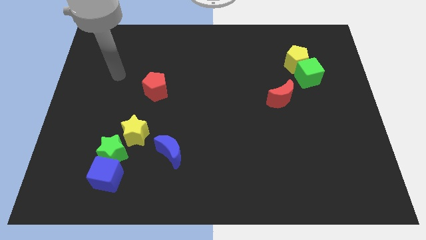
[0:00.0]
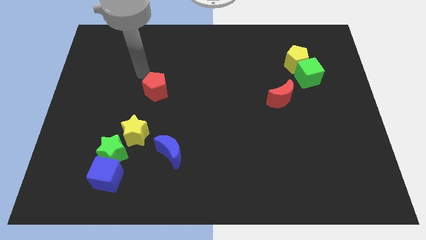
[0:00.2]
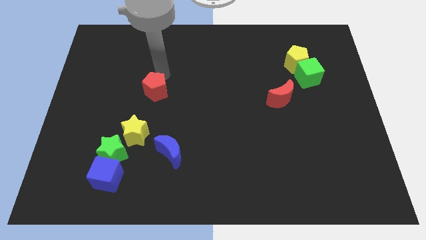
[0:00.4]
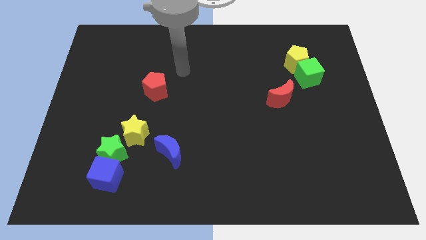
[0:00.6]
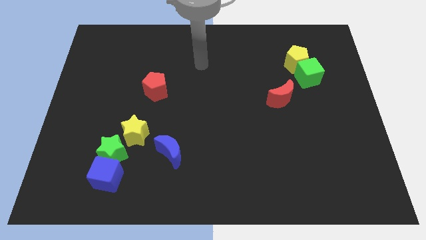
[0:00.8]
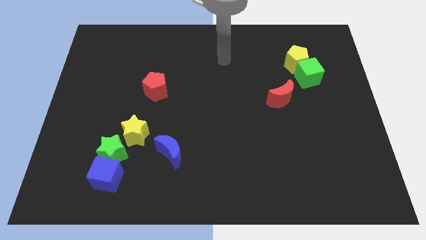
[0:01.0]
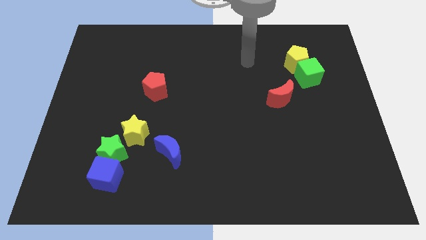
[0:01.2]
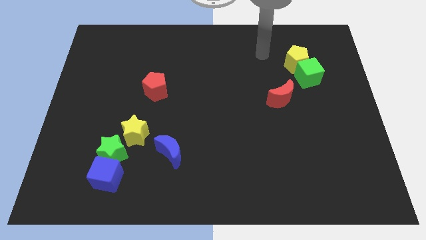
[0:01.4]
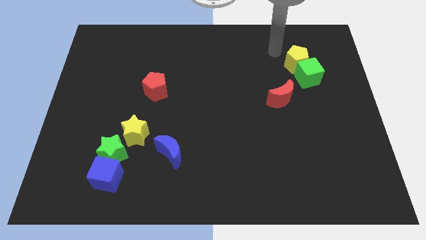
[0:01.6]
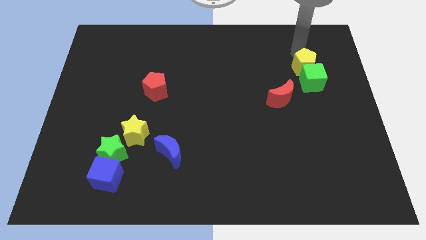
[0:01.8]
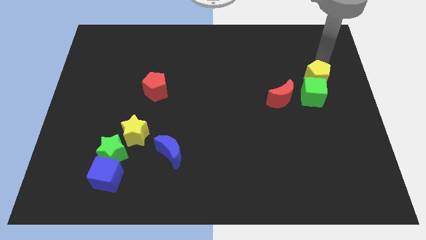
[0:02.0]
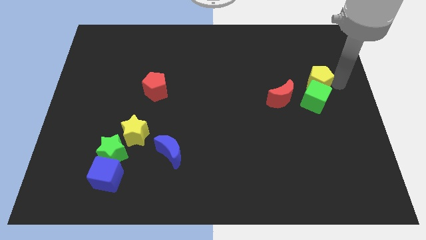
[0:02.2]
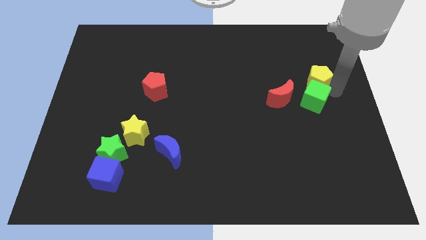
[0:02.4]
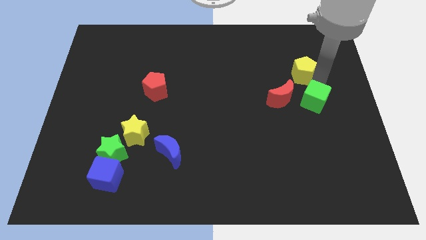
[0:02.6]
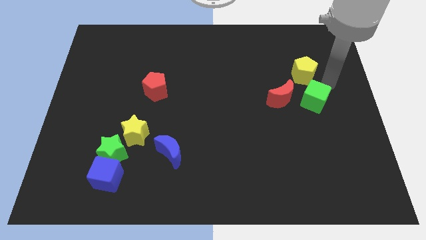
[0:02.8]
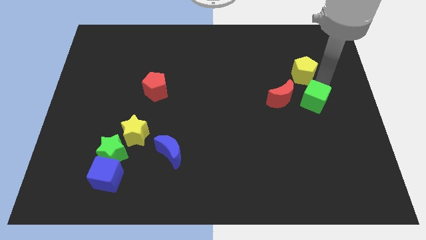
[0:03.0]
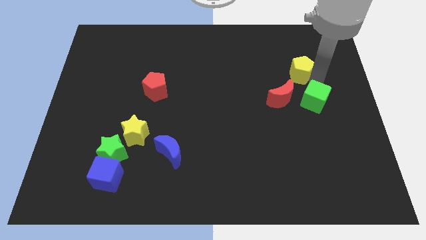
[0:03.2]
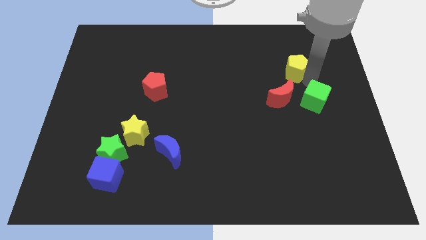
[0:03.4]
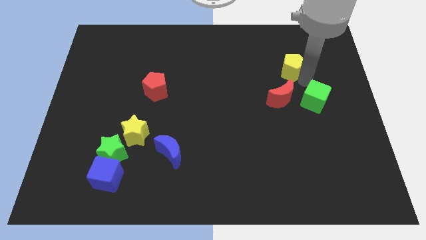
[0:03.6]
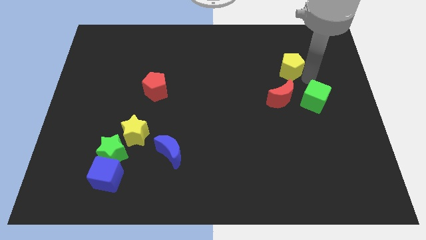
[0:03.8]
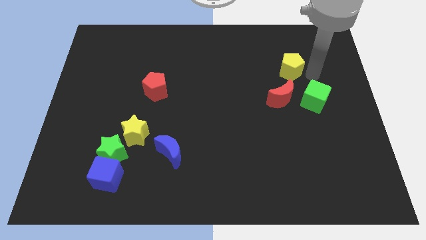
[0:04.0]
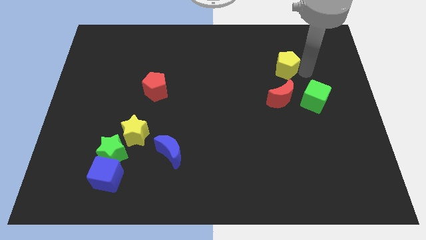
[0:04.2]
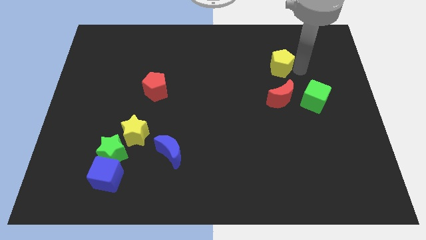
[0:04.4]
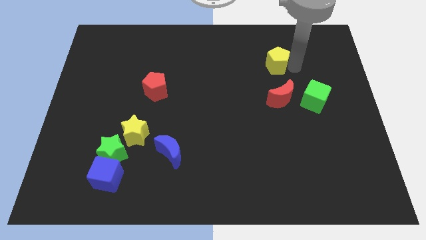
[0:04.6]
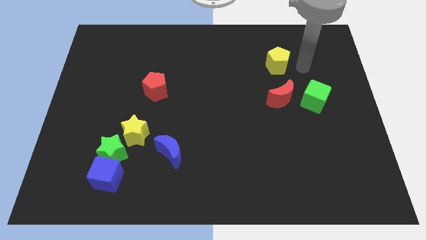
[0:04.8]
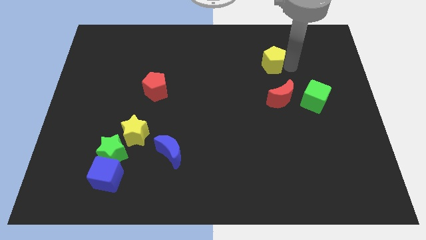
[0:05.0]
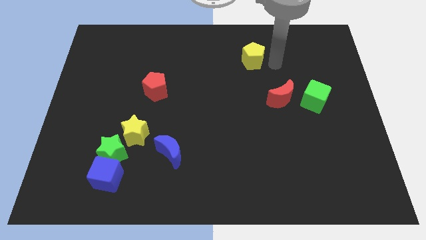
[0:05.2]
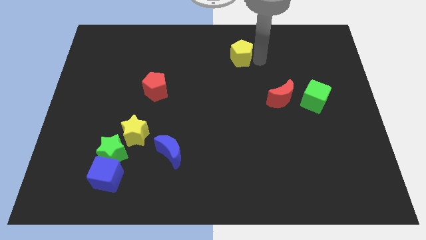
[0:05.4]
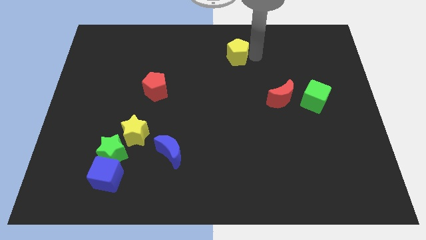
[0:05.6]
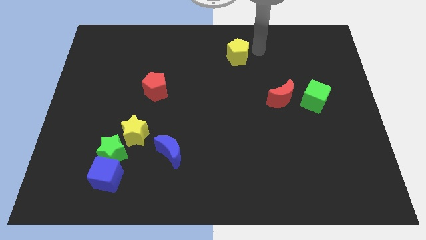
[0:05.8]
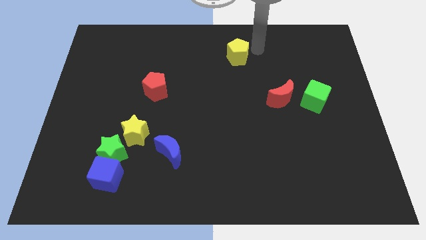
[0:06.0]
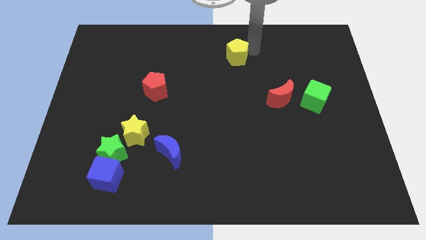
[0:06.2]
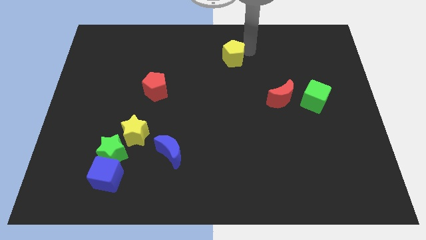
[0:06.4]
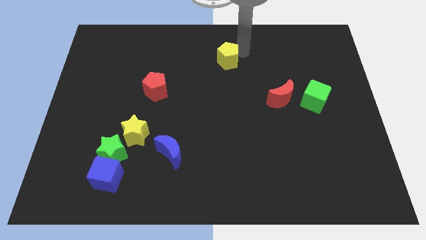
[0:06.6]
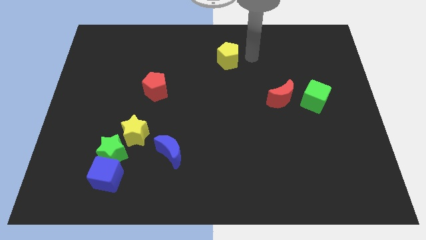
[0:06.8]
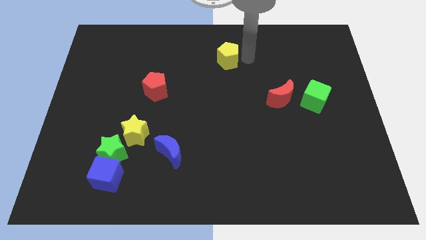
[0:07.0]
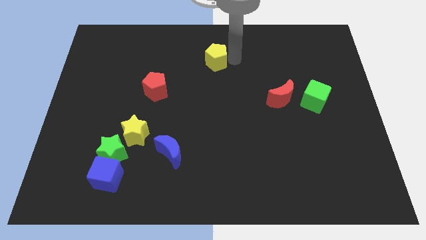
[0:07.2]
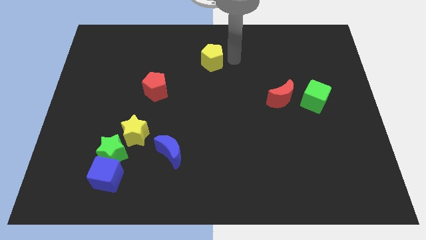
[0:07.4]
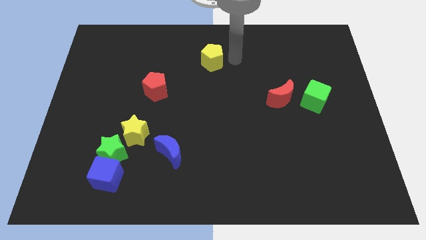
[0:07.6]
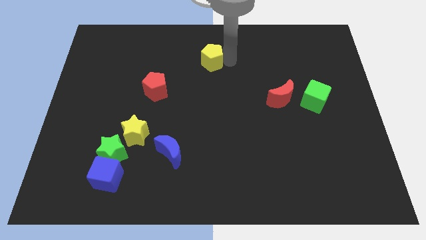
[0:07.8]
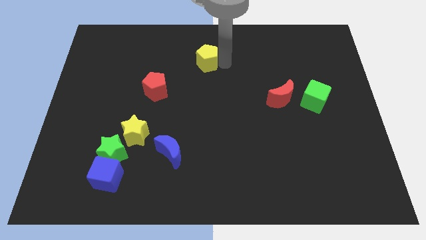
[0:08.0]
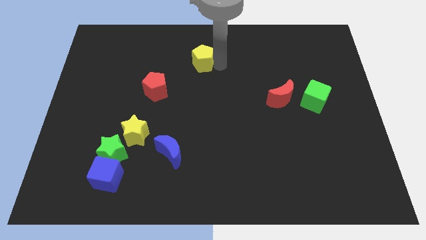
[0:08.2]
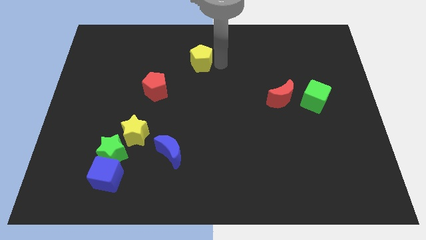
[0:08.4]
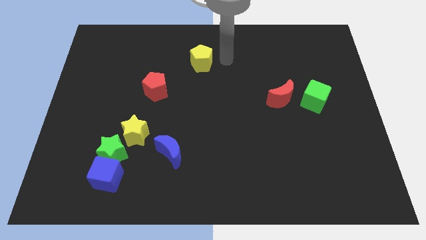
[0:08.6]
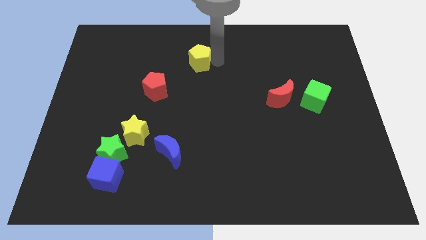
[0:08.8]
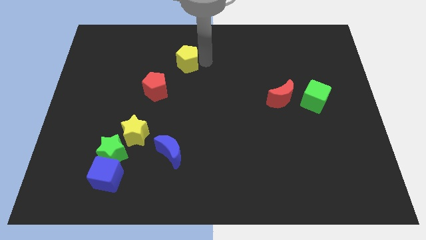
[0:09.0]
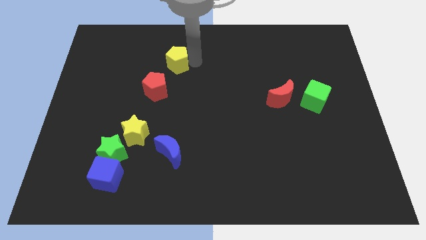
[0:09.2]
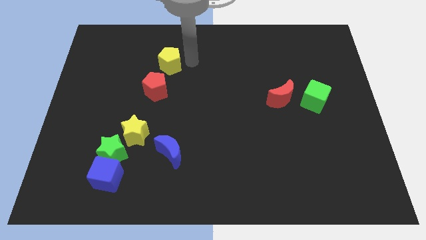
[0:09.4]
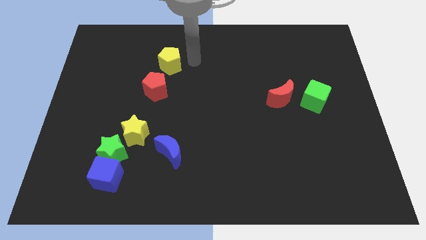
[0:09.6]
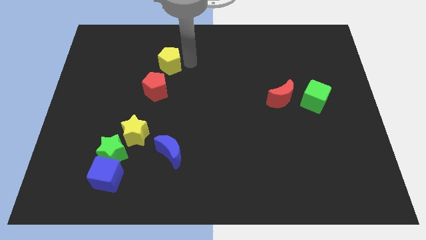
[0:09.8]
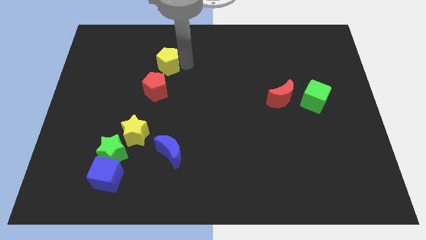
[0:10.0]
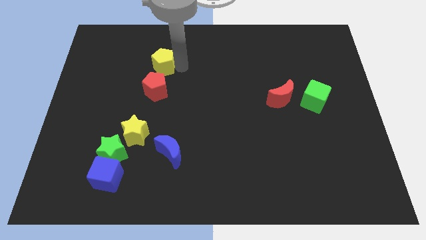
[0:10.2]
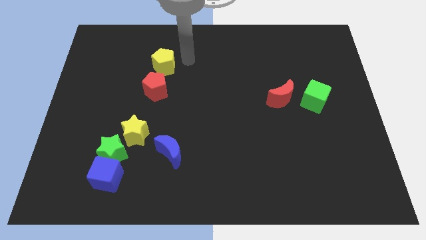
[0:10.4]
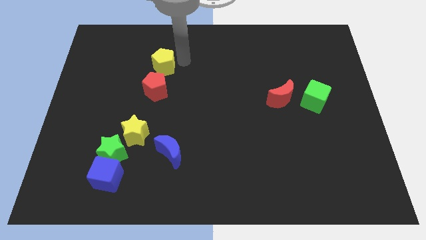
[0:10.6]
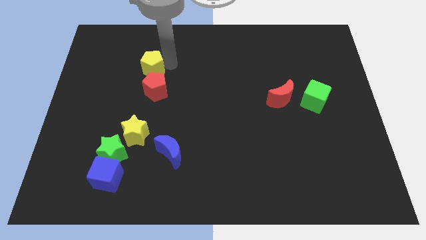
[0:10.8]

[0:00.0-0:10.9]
move the yellow pentagon to the top left side of the red pentagon

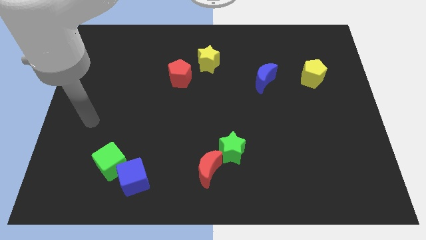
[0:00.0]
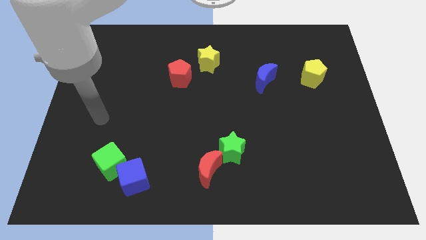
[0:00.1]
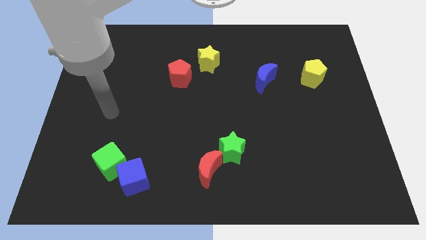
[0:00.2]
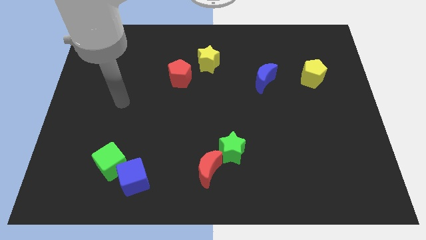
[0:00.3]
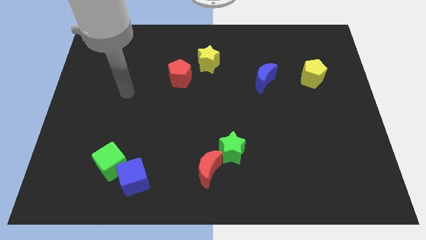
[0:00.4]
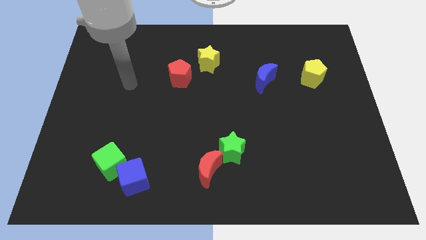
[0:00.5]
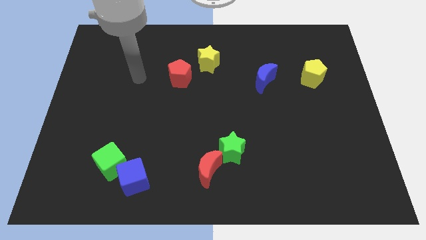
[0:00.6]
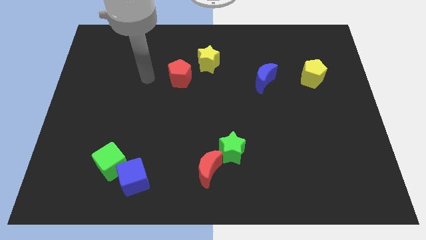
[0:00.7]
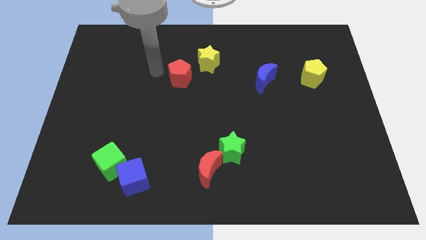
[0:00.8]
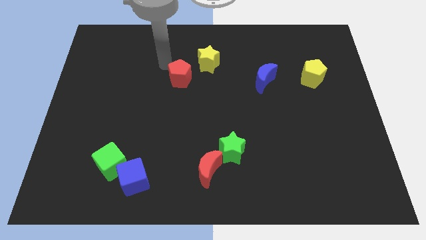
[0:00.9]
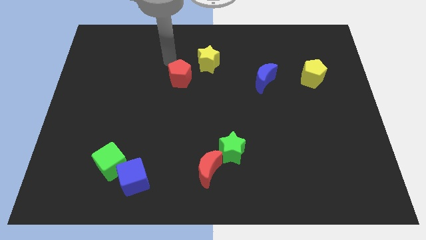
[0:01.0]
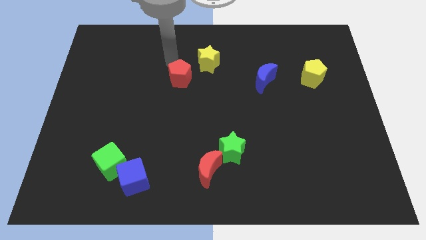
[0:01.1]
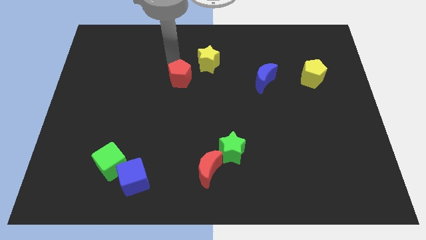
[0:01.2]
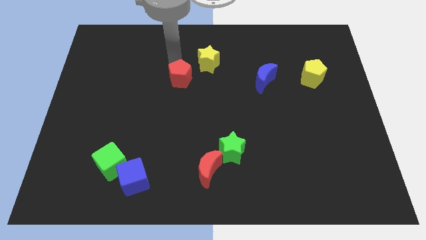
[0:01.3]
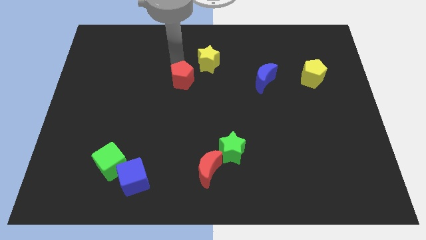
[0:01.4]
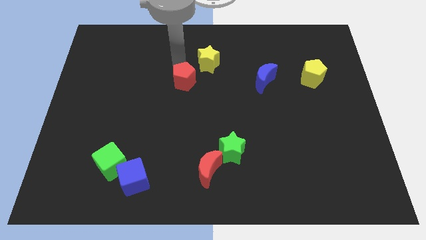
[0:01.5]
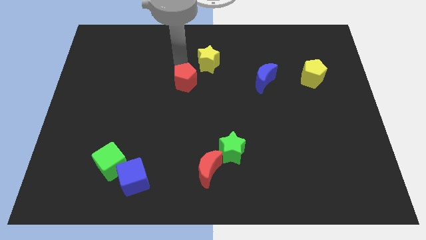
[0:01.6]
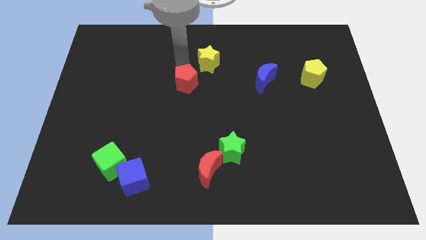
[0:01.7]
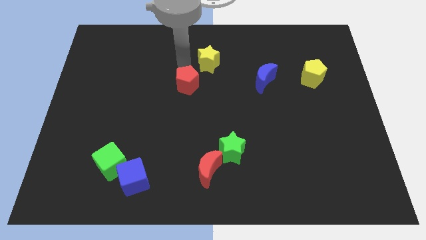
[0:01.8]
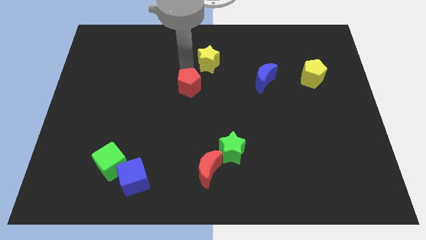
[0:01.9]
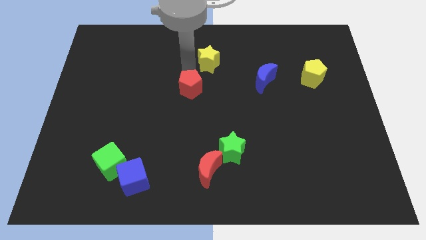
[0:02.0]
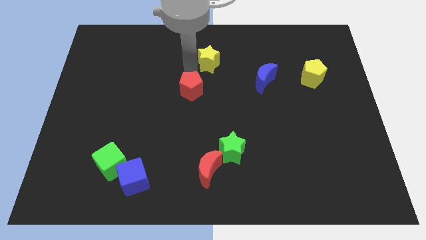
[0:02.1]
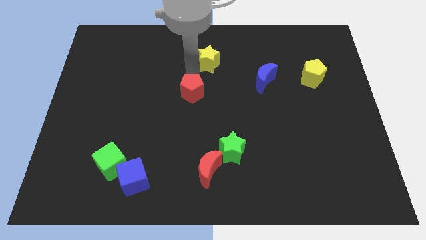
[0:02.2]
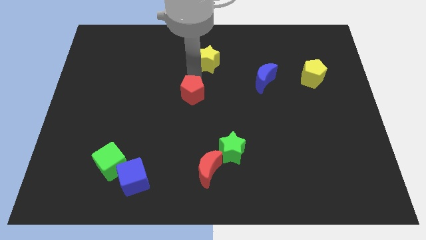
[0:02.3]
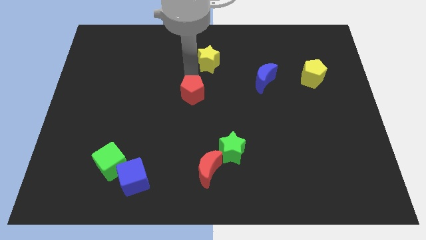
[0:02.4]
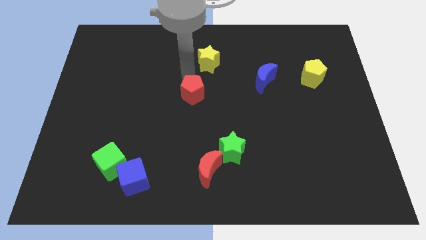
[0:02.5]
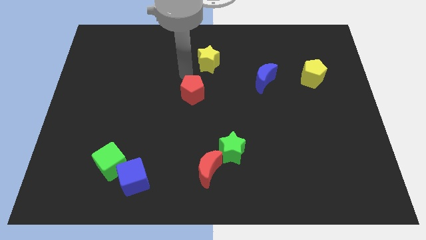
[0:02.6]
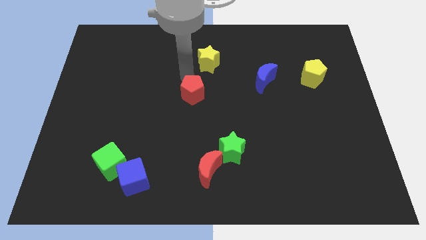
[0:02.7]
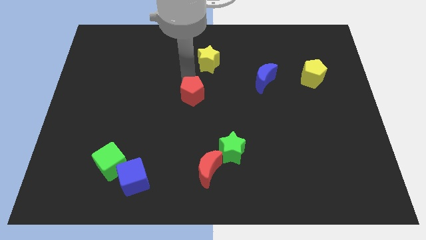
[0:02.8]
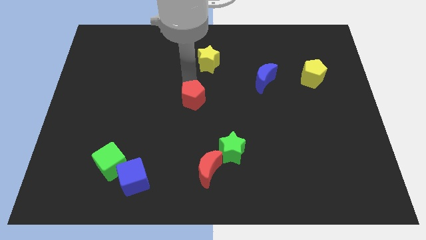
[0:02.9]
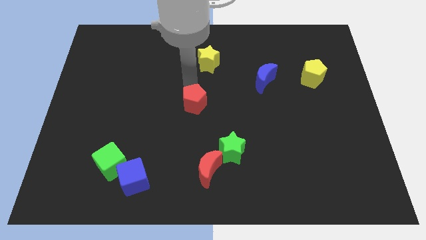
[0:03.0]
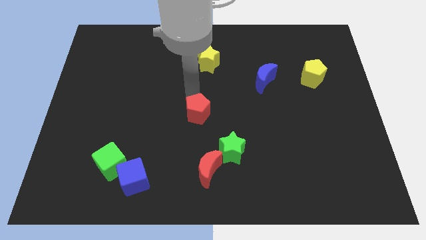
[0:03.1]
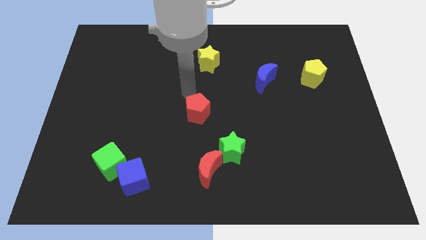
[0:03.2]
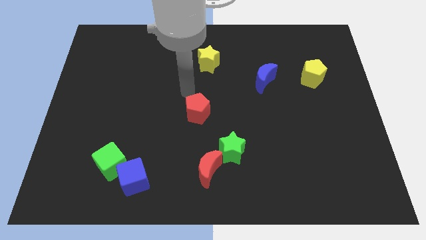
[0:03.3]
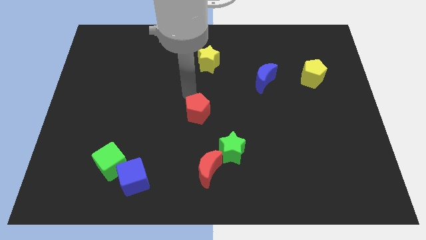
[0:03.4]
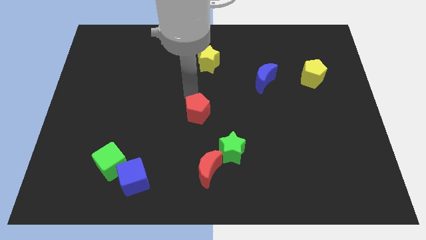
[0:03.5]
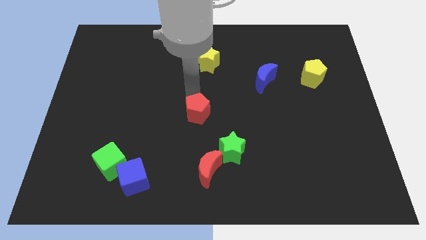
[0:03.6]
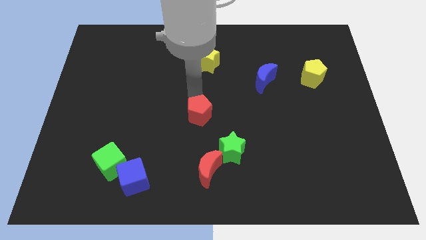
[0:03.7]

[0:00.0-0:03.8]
slide the red pentagon to the top left side of the green star
